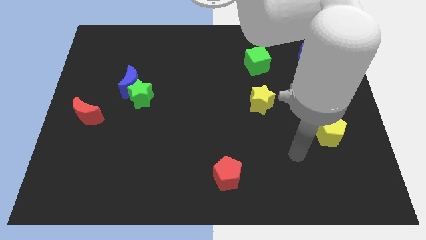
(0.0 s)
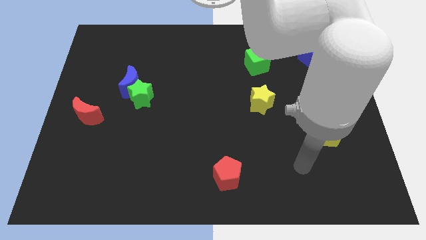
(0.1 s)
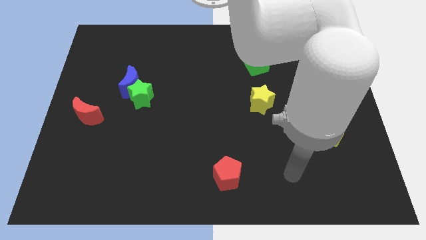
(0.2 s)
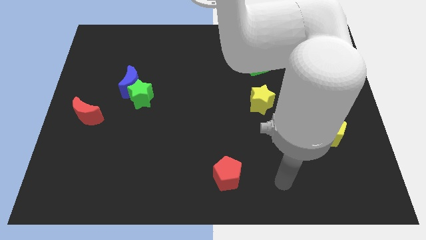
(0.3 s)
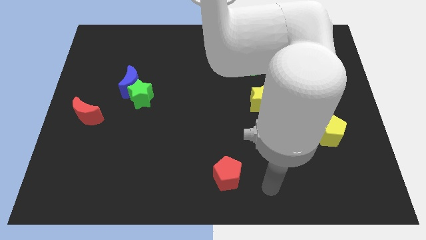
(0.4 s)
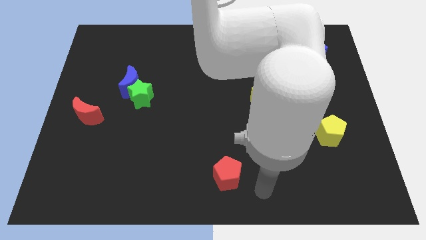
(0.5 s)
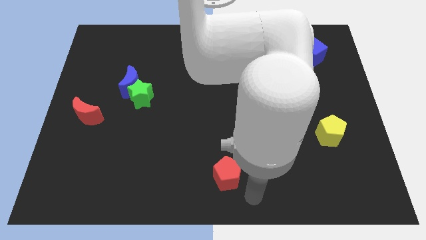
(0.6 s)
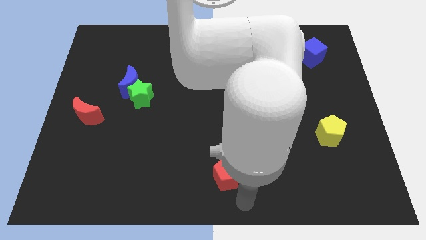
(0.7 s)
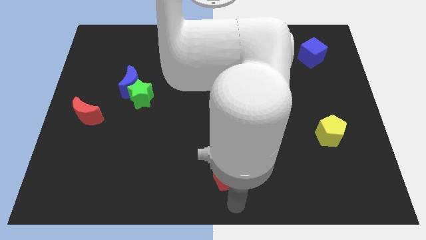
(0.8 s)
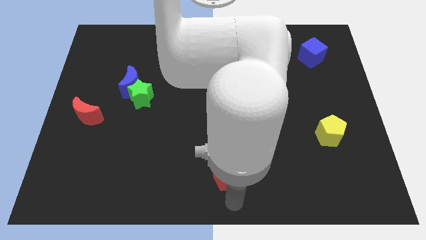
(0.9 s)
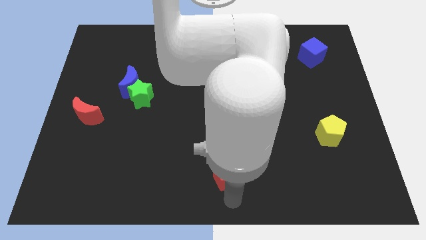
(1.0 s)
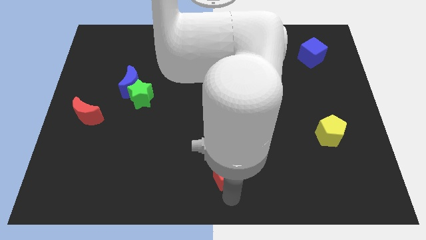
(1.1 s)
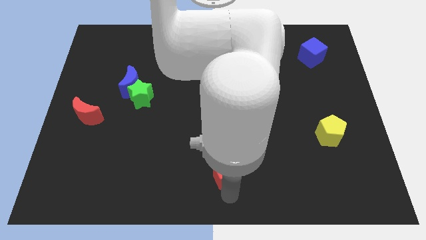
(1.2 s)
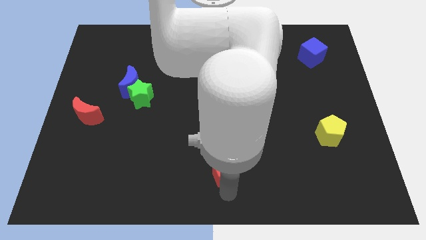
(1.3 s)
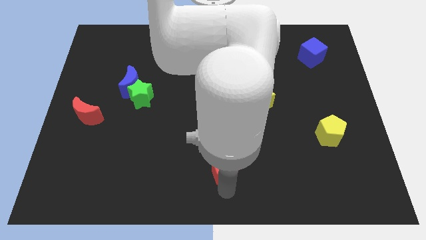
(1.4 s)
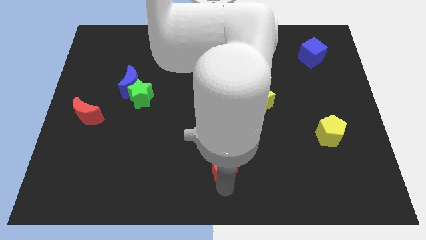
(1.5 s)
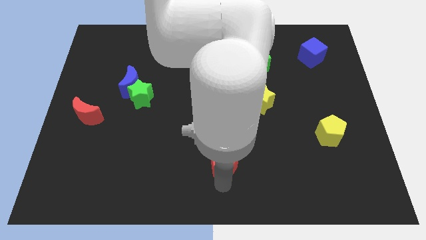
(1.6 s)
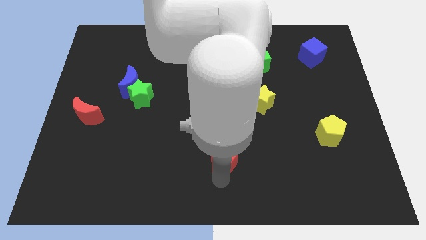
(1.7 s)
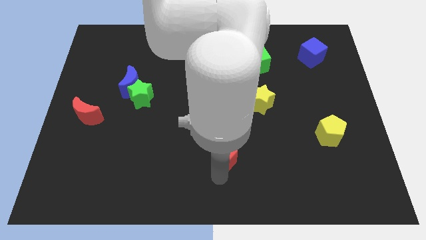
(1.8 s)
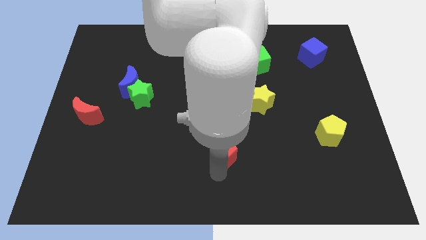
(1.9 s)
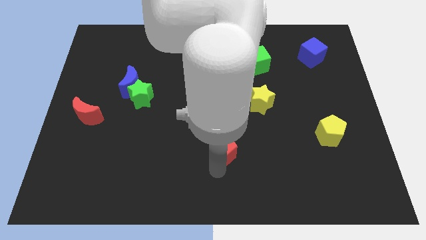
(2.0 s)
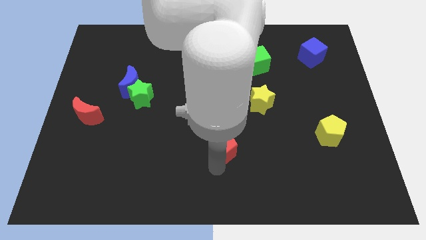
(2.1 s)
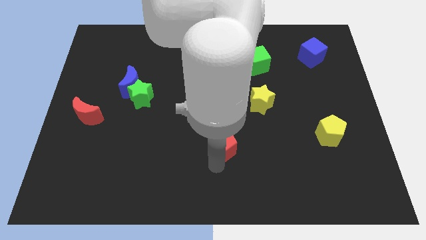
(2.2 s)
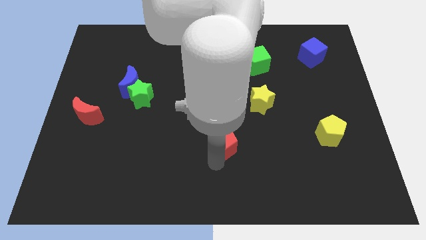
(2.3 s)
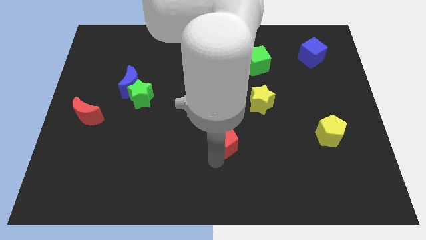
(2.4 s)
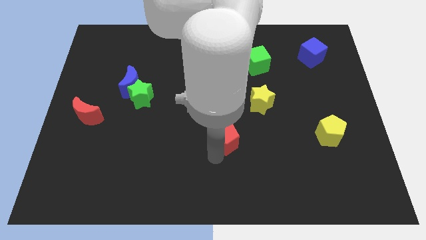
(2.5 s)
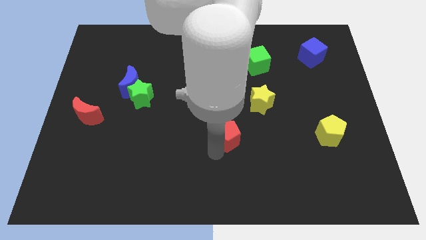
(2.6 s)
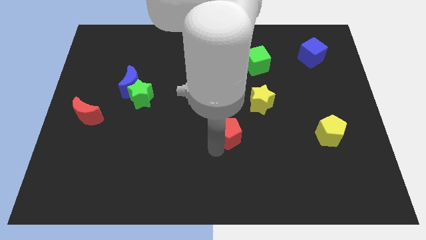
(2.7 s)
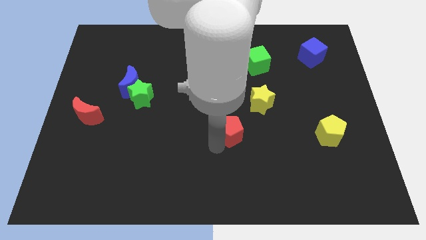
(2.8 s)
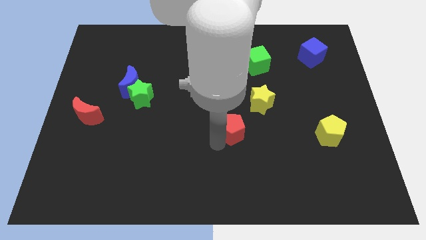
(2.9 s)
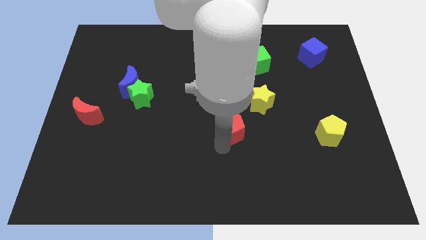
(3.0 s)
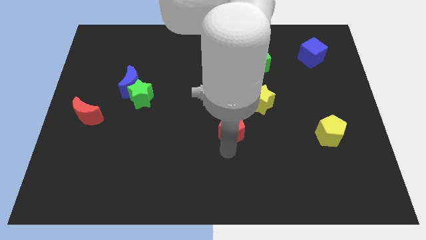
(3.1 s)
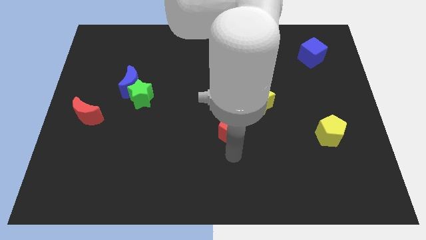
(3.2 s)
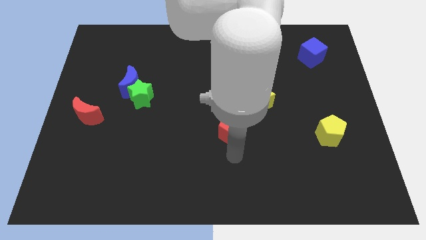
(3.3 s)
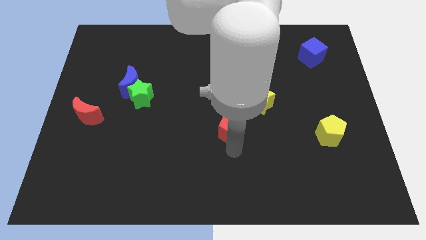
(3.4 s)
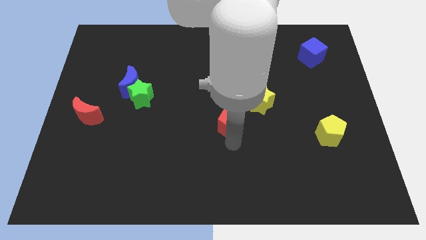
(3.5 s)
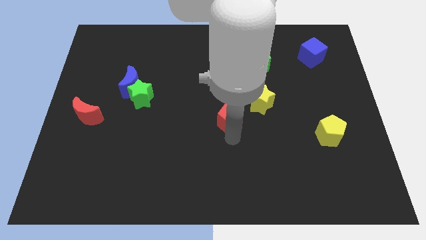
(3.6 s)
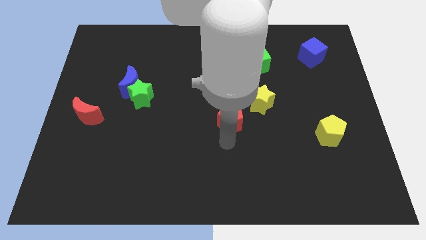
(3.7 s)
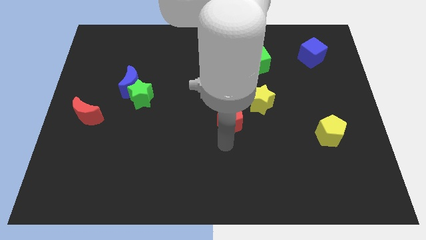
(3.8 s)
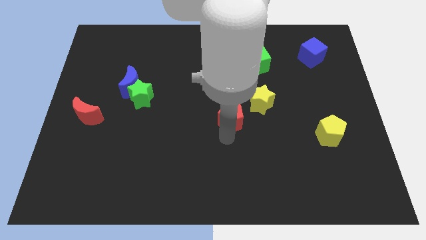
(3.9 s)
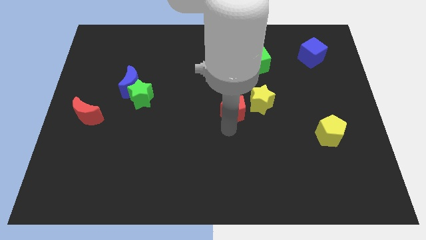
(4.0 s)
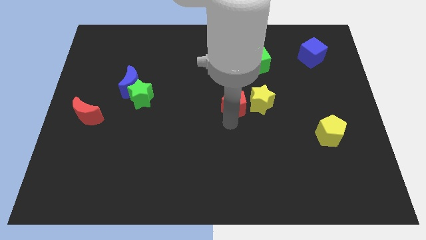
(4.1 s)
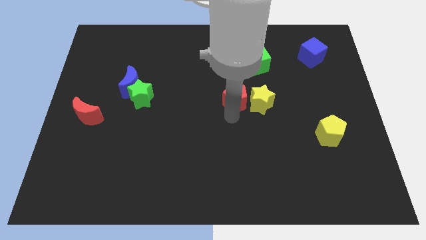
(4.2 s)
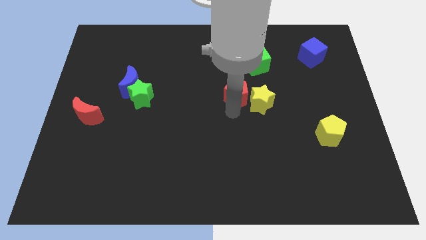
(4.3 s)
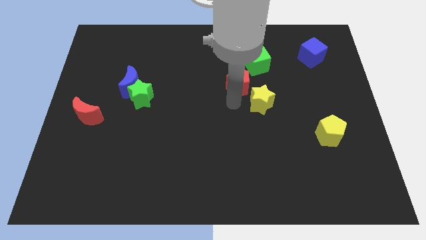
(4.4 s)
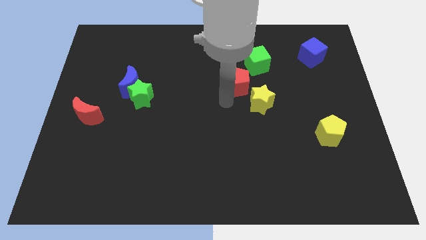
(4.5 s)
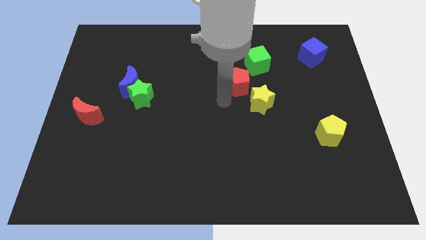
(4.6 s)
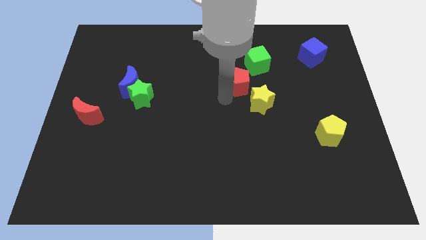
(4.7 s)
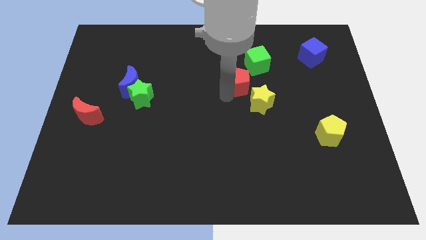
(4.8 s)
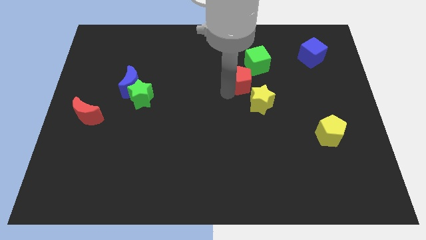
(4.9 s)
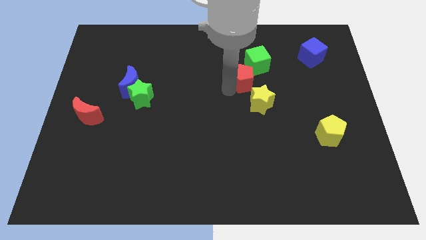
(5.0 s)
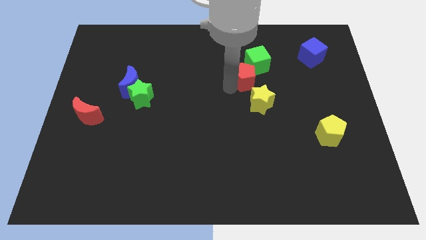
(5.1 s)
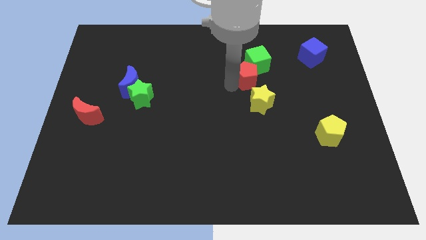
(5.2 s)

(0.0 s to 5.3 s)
push the red pentagon close to the green cube

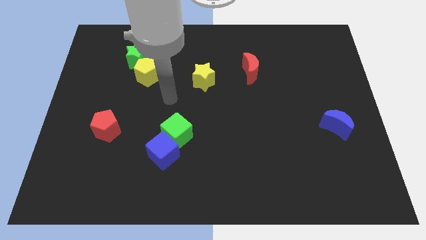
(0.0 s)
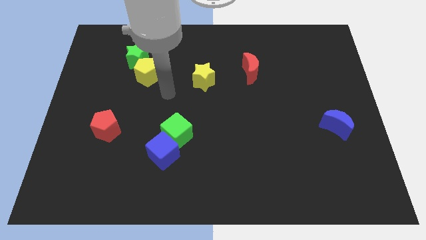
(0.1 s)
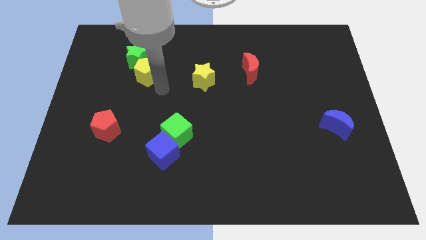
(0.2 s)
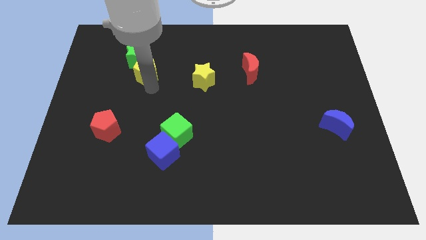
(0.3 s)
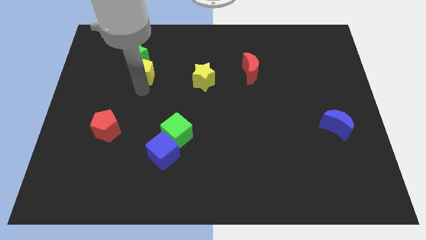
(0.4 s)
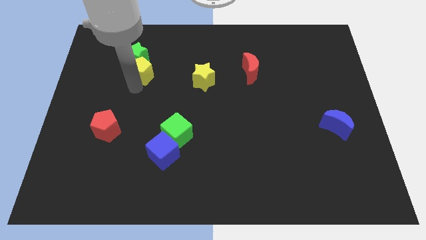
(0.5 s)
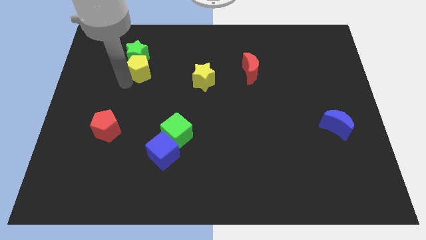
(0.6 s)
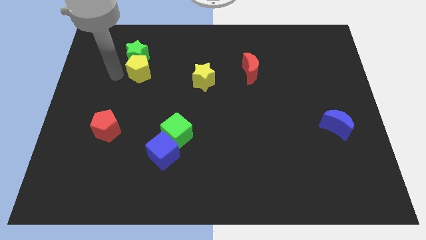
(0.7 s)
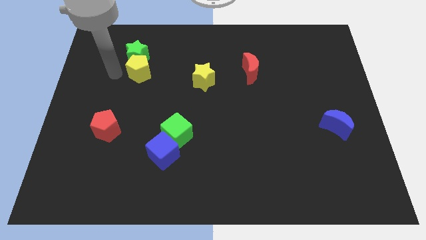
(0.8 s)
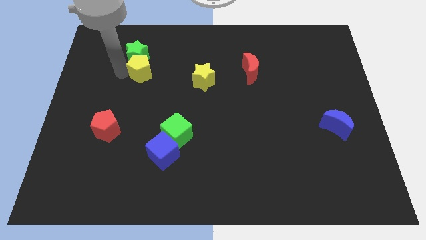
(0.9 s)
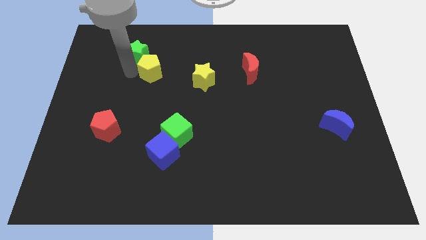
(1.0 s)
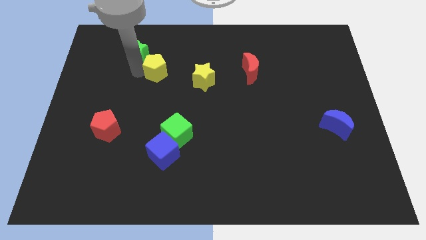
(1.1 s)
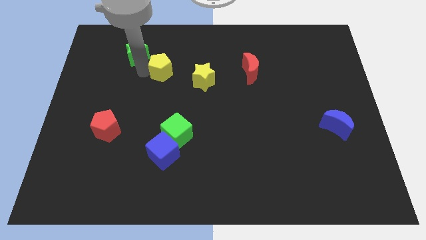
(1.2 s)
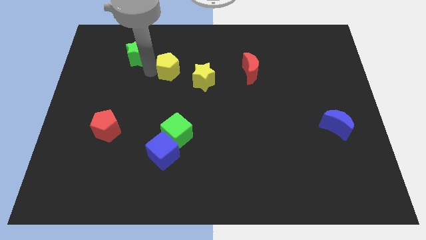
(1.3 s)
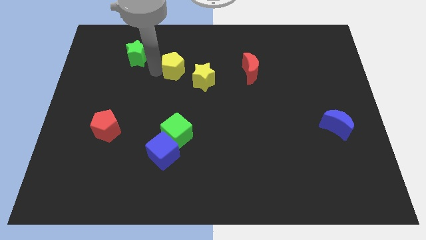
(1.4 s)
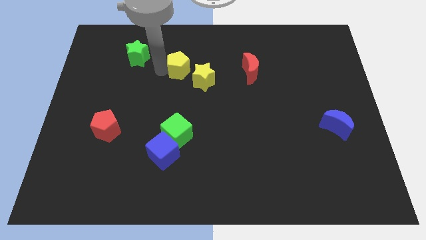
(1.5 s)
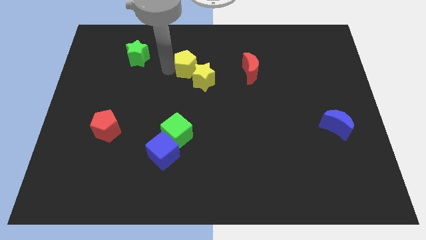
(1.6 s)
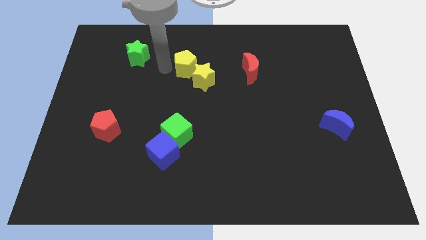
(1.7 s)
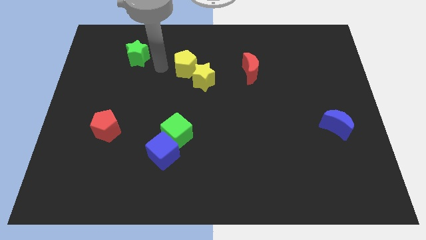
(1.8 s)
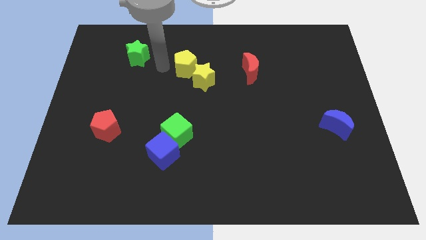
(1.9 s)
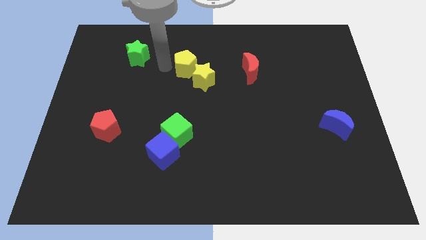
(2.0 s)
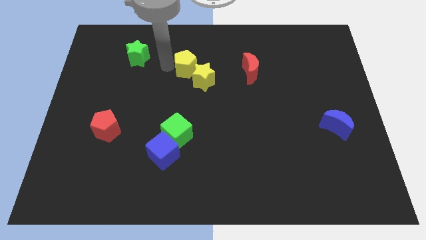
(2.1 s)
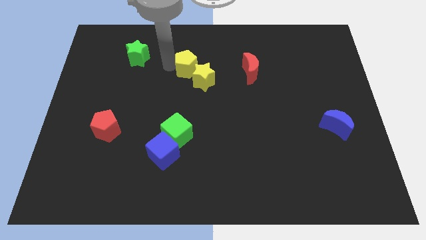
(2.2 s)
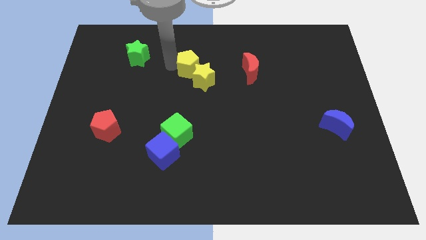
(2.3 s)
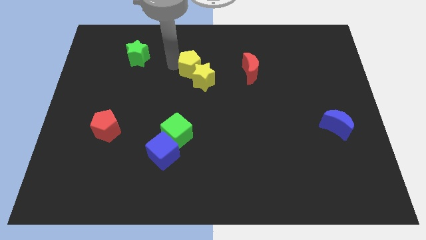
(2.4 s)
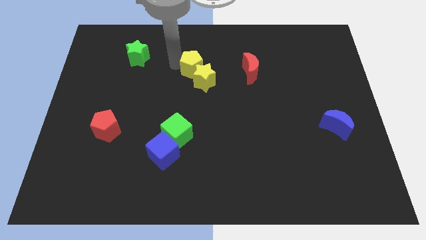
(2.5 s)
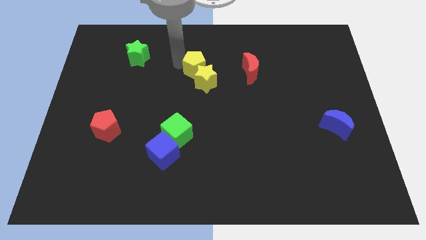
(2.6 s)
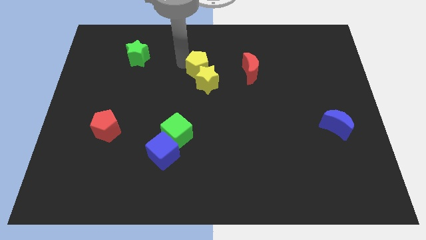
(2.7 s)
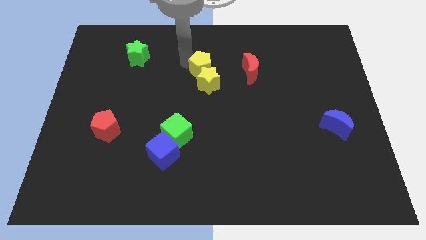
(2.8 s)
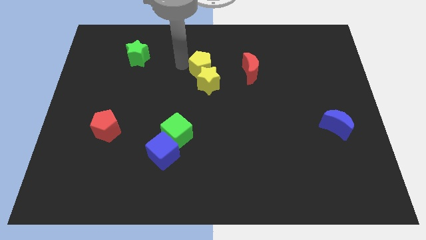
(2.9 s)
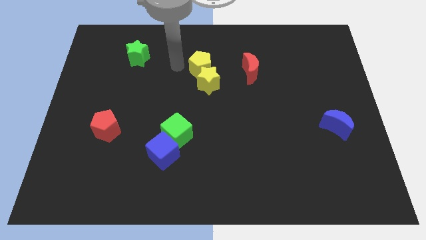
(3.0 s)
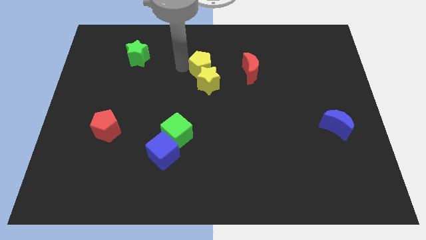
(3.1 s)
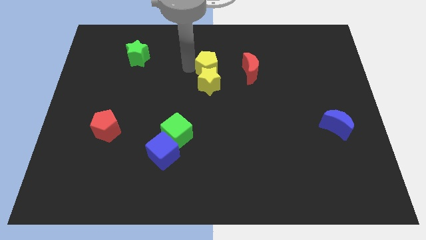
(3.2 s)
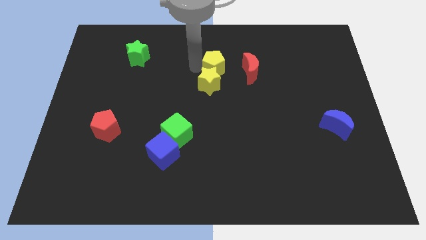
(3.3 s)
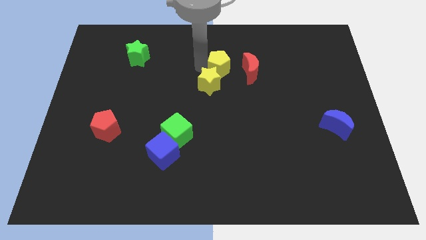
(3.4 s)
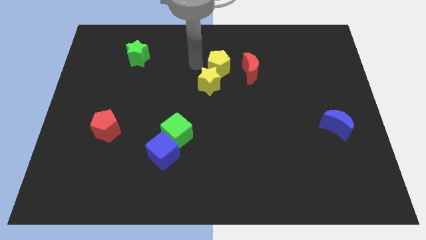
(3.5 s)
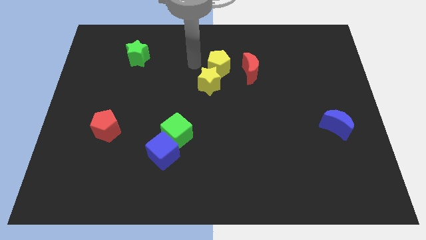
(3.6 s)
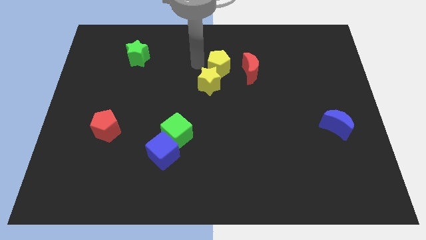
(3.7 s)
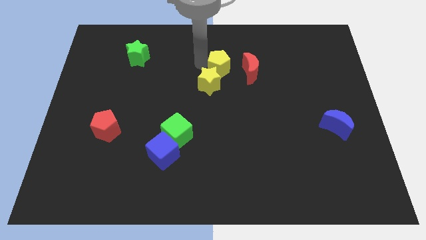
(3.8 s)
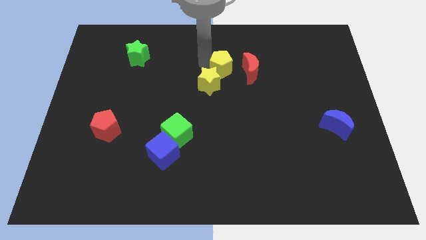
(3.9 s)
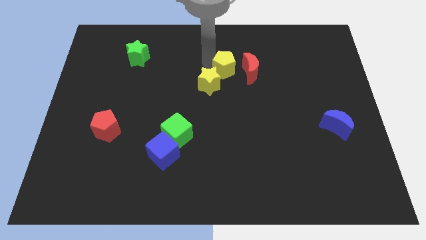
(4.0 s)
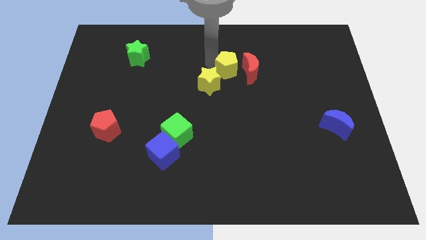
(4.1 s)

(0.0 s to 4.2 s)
put the yellow pentagon close to the red moon
